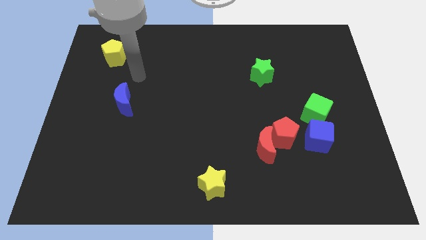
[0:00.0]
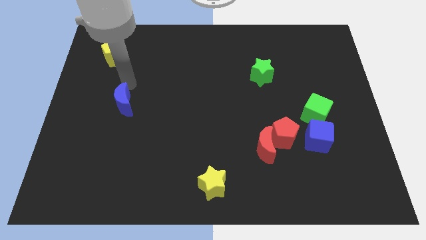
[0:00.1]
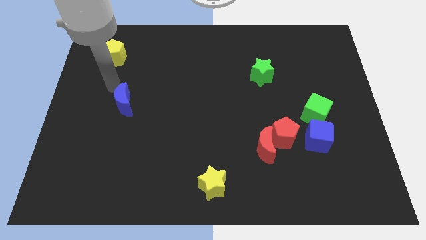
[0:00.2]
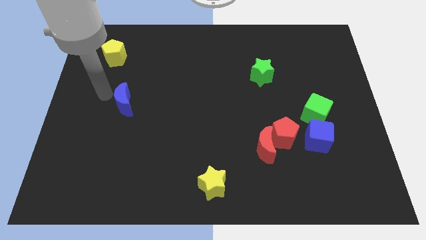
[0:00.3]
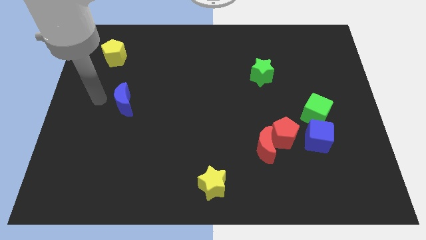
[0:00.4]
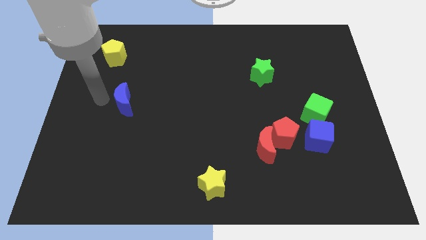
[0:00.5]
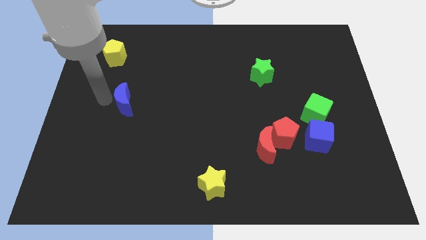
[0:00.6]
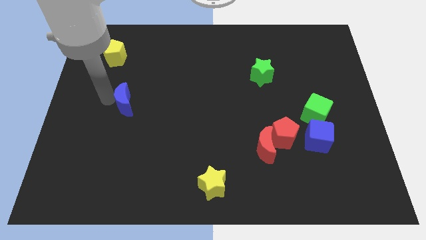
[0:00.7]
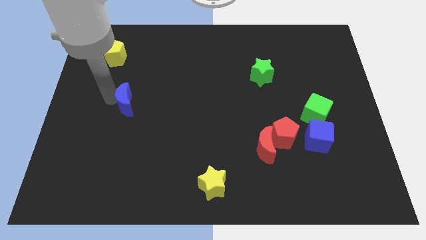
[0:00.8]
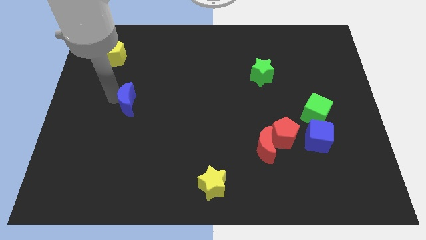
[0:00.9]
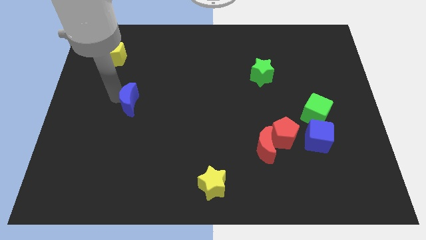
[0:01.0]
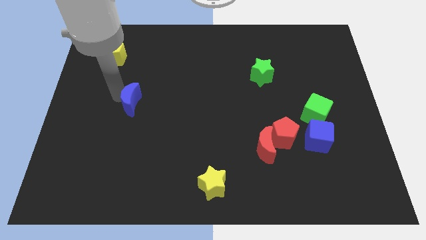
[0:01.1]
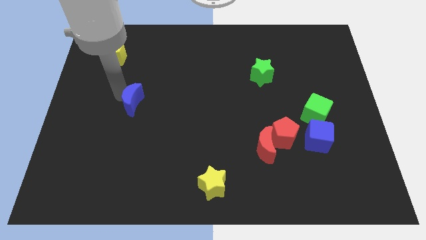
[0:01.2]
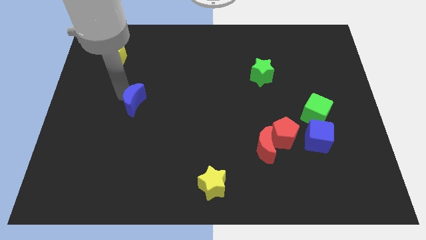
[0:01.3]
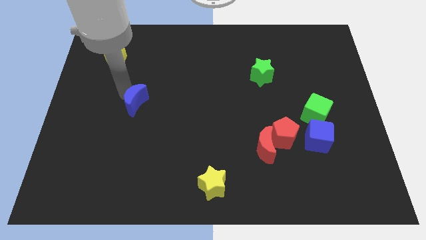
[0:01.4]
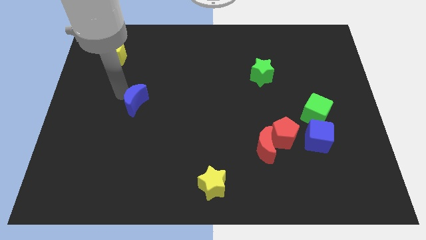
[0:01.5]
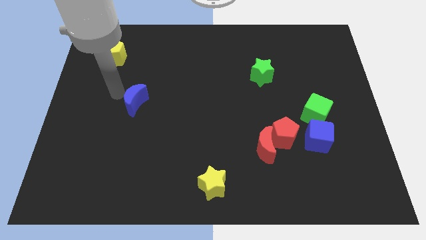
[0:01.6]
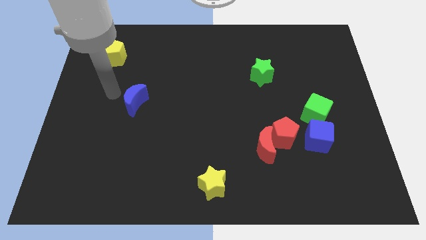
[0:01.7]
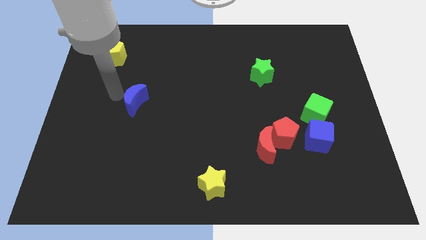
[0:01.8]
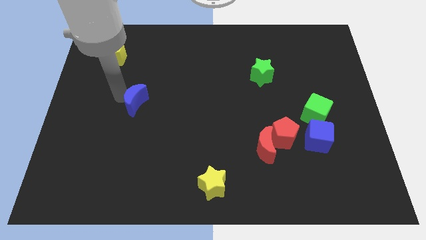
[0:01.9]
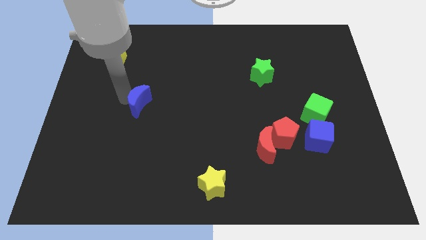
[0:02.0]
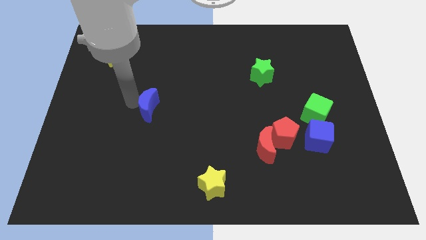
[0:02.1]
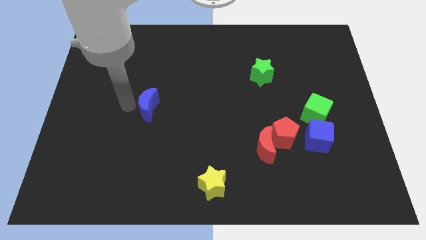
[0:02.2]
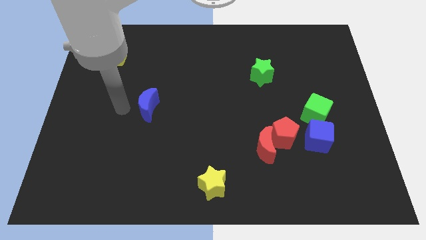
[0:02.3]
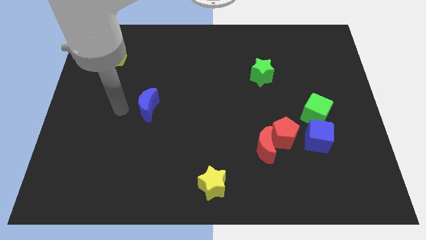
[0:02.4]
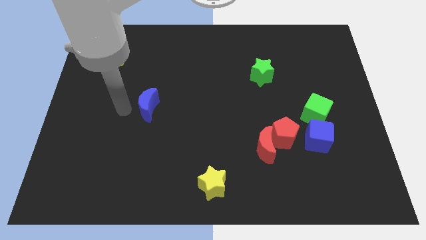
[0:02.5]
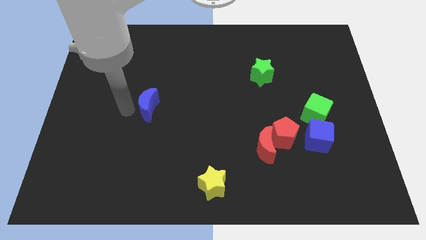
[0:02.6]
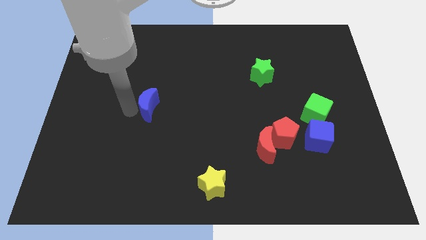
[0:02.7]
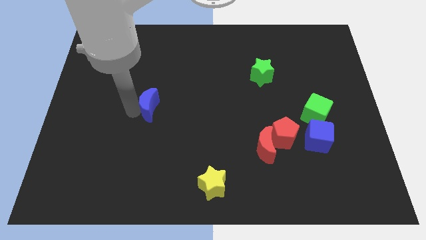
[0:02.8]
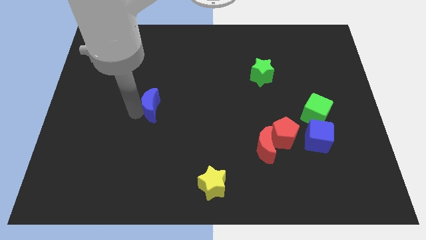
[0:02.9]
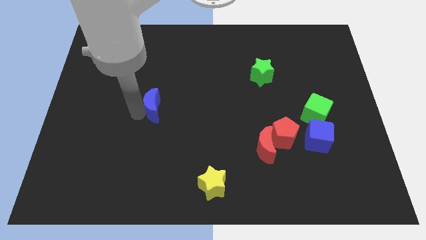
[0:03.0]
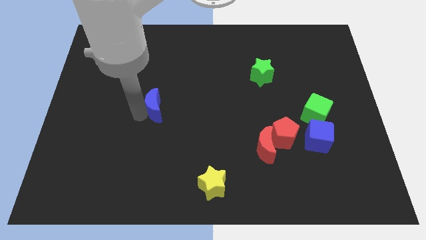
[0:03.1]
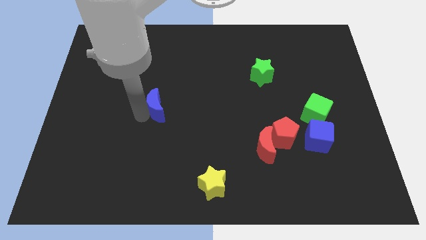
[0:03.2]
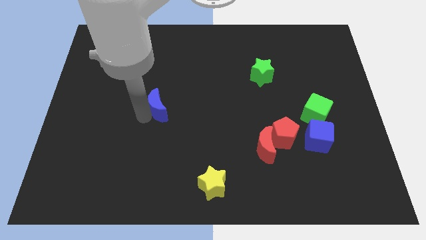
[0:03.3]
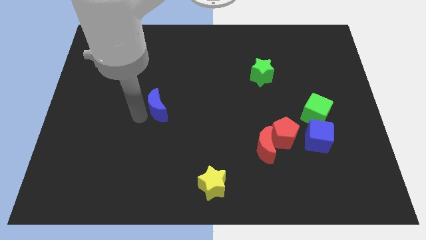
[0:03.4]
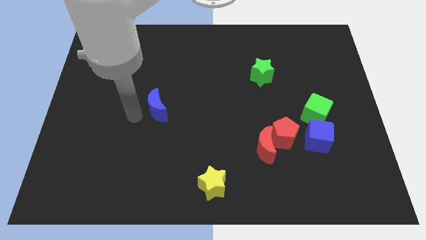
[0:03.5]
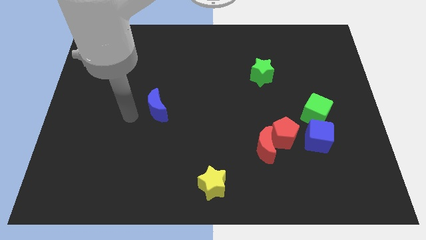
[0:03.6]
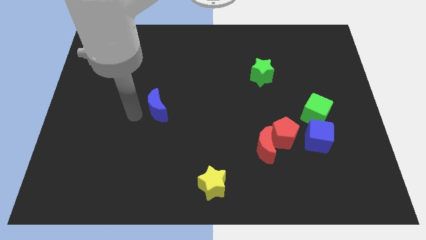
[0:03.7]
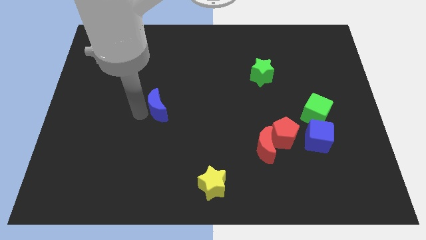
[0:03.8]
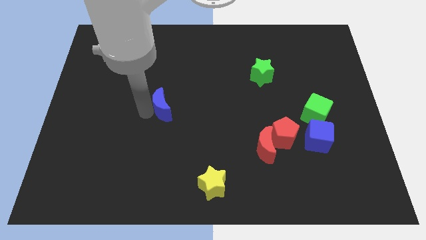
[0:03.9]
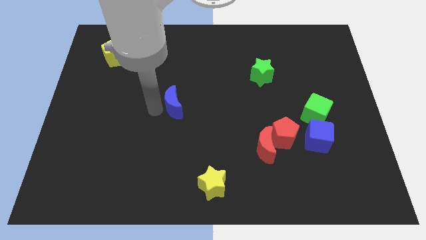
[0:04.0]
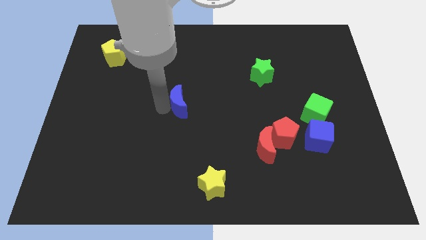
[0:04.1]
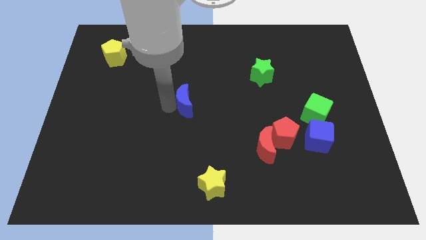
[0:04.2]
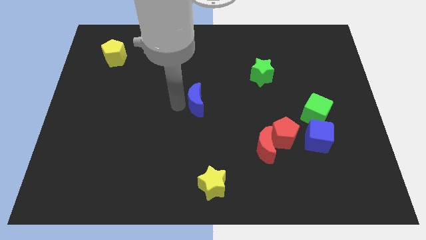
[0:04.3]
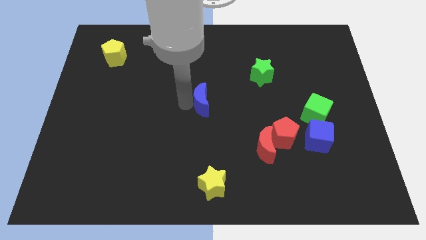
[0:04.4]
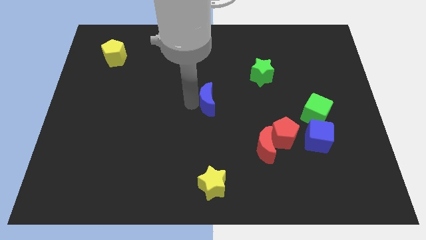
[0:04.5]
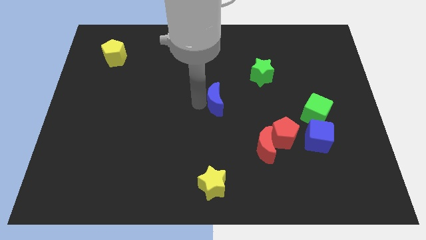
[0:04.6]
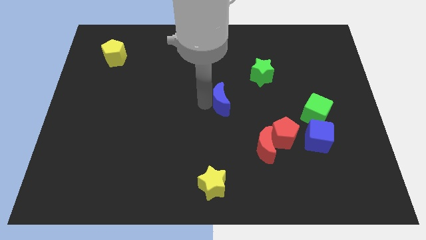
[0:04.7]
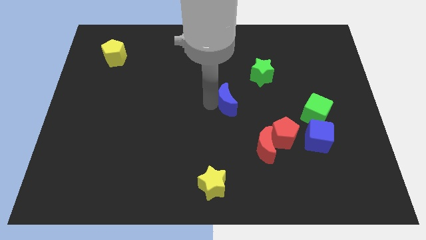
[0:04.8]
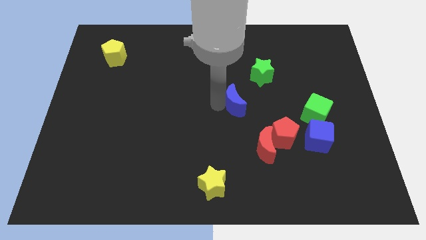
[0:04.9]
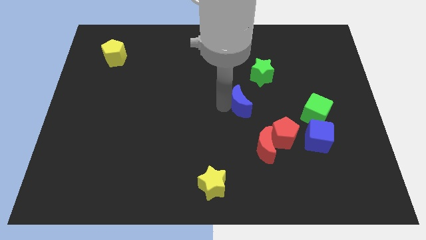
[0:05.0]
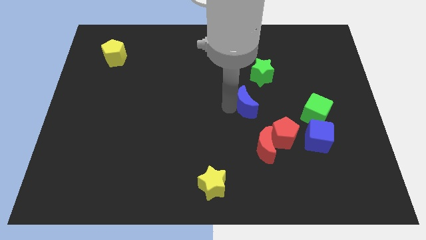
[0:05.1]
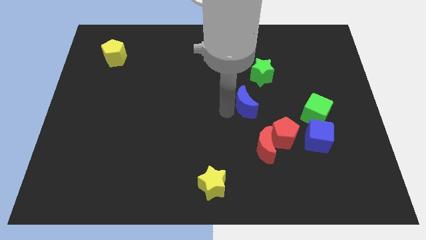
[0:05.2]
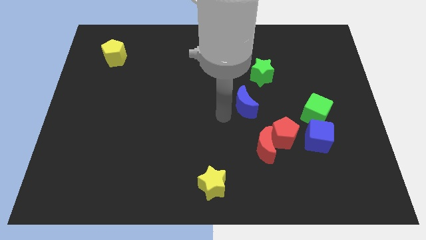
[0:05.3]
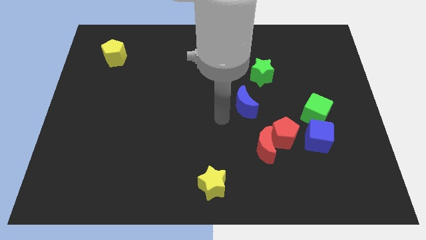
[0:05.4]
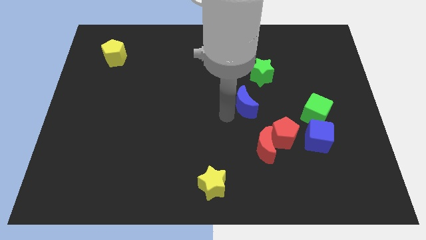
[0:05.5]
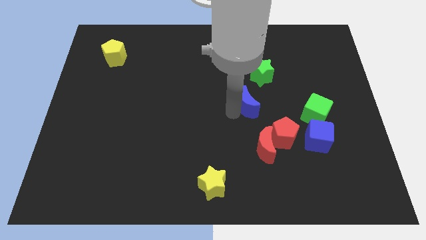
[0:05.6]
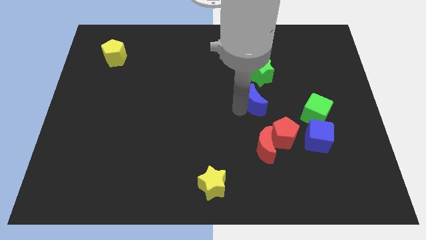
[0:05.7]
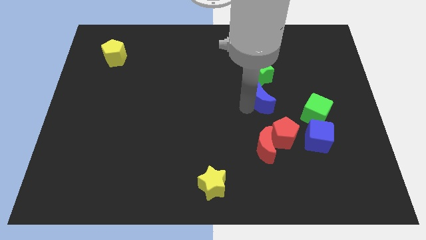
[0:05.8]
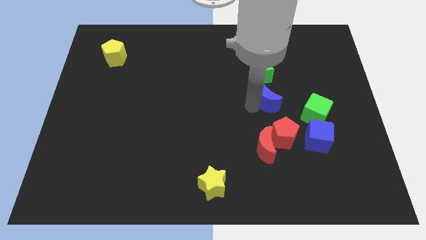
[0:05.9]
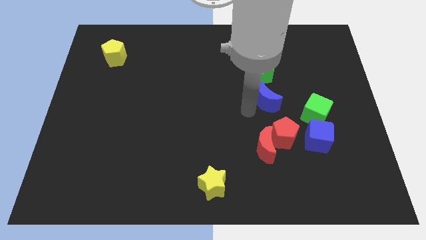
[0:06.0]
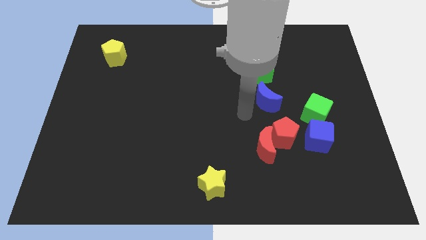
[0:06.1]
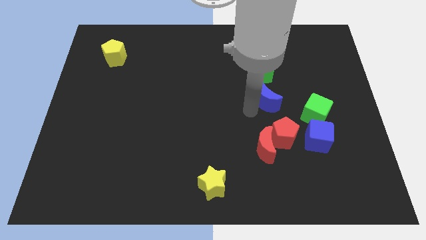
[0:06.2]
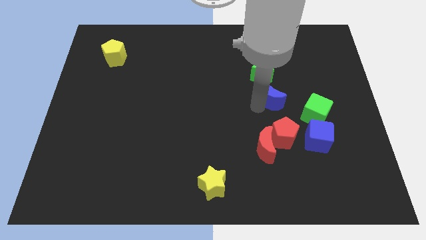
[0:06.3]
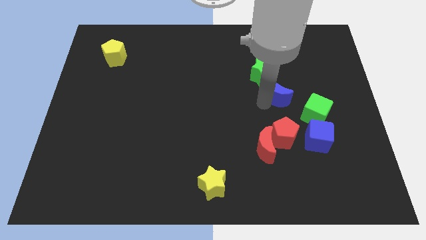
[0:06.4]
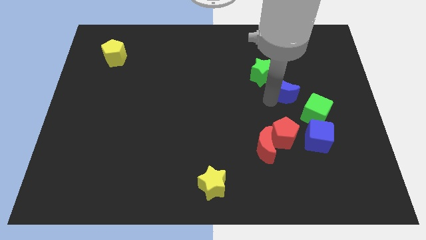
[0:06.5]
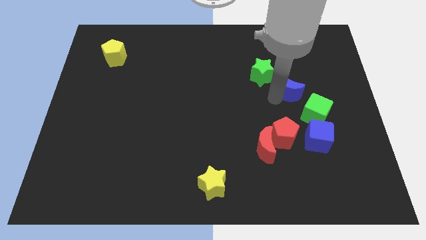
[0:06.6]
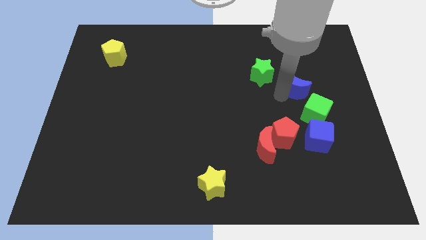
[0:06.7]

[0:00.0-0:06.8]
move the blue moon above the green cube
